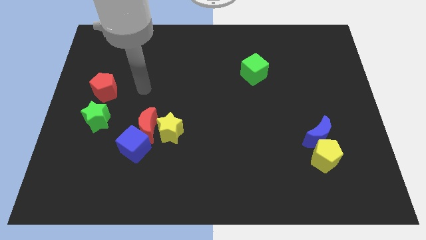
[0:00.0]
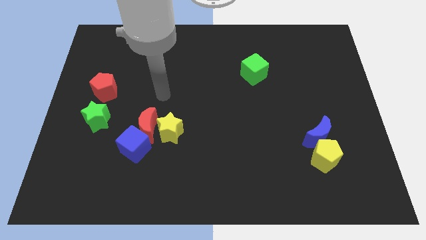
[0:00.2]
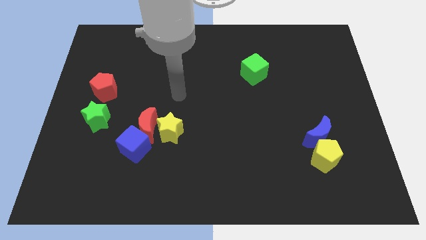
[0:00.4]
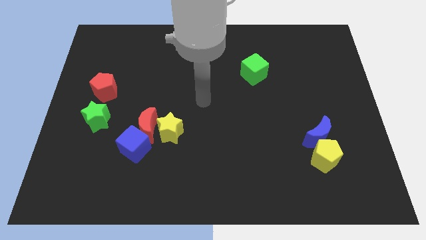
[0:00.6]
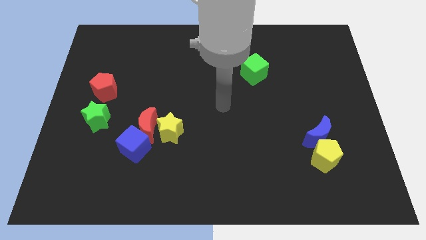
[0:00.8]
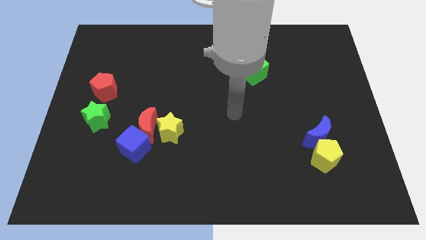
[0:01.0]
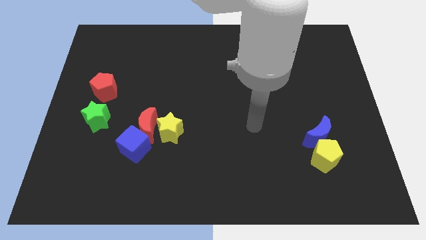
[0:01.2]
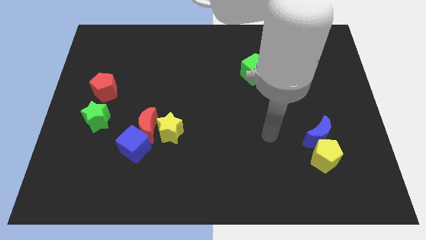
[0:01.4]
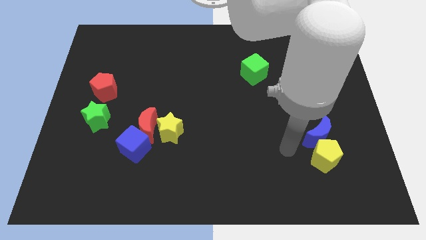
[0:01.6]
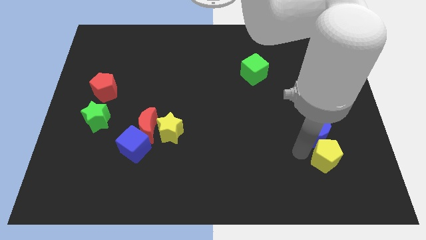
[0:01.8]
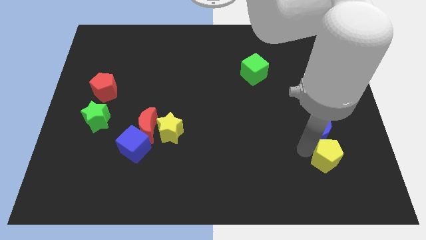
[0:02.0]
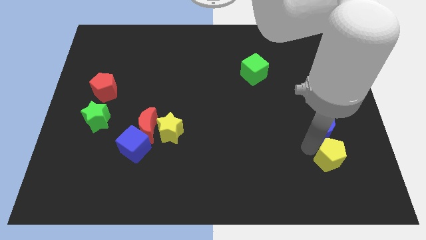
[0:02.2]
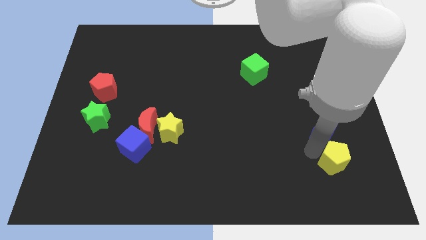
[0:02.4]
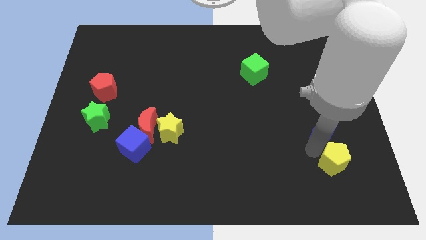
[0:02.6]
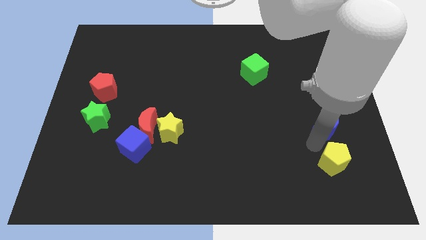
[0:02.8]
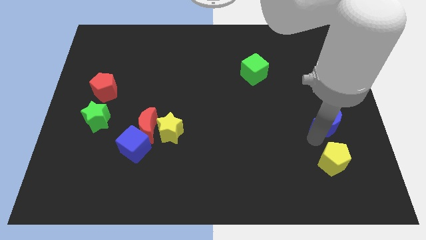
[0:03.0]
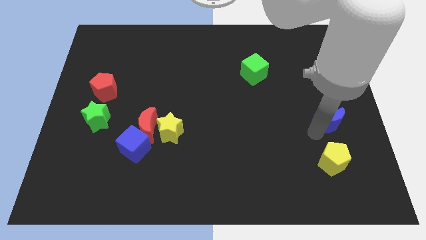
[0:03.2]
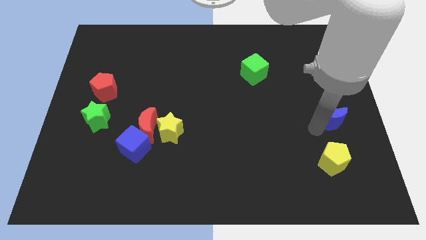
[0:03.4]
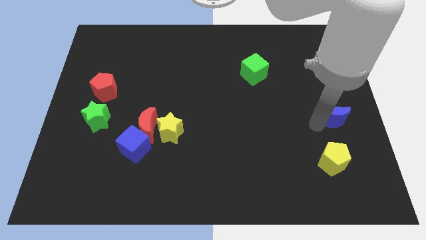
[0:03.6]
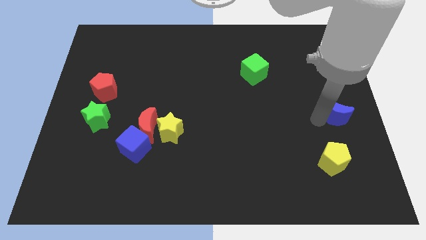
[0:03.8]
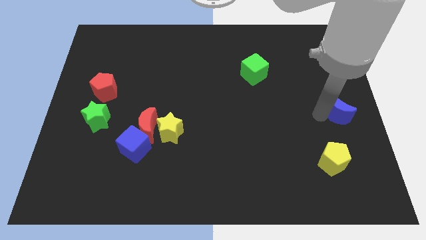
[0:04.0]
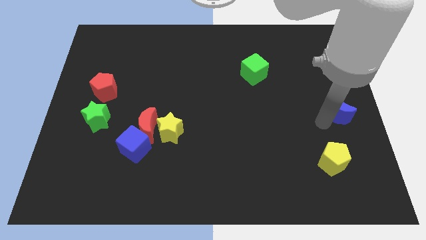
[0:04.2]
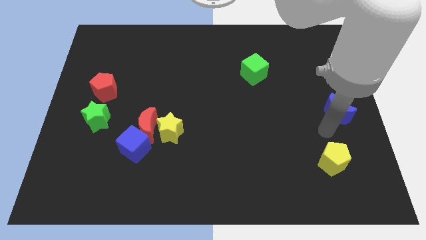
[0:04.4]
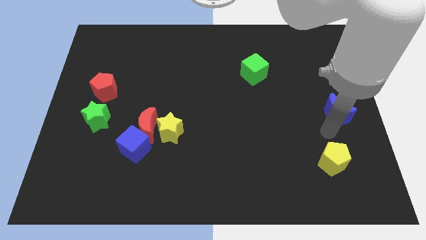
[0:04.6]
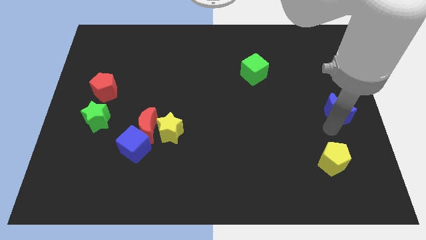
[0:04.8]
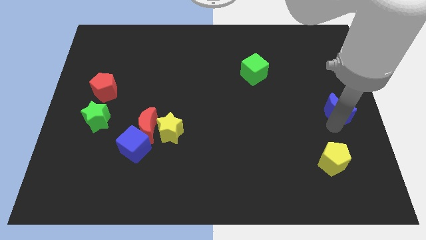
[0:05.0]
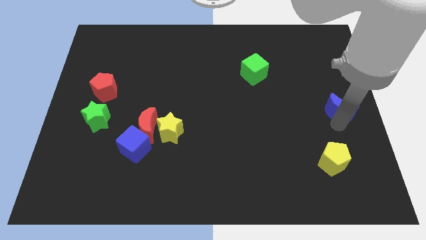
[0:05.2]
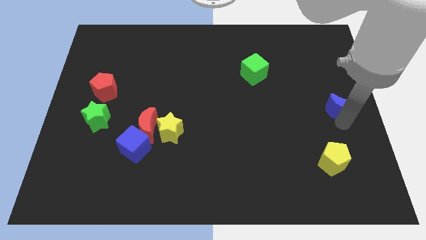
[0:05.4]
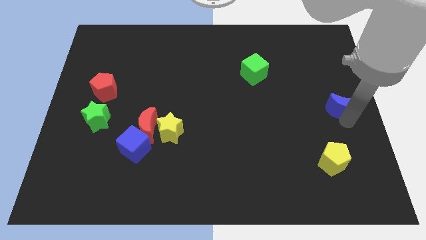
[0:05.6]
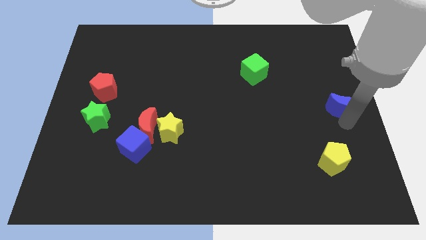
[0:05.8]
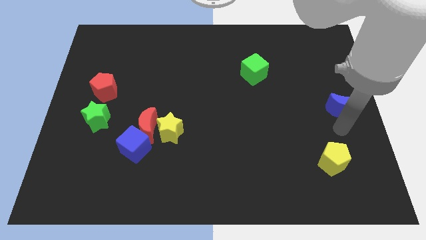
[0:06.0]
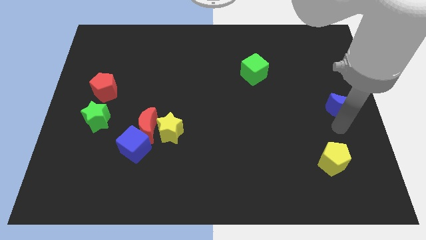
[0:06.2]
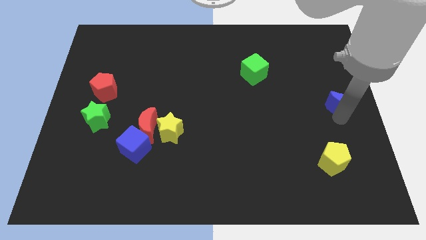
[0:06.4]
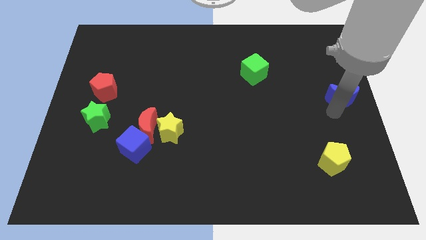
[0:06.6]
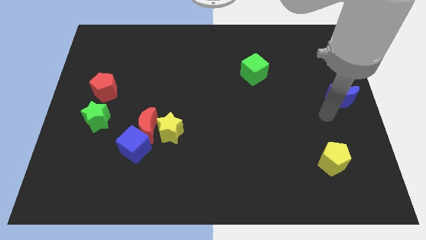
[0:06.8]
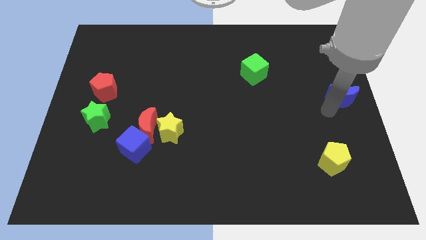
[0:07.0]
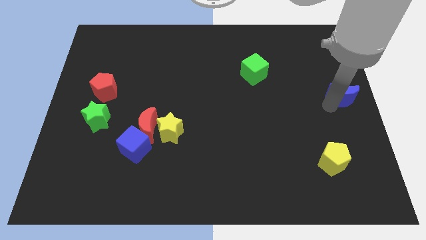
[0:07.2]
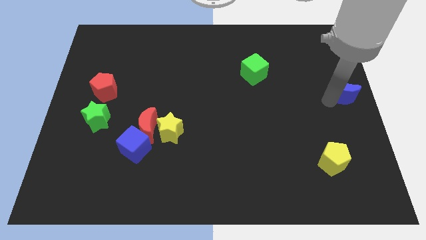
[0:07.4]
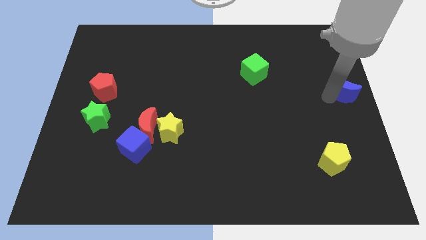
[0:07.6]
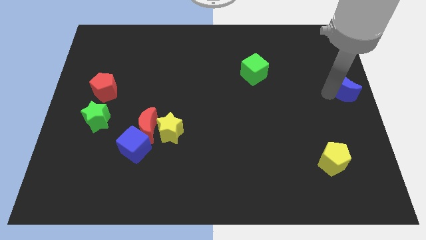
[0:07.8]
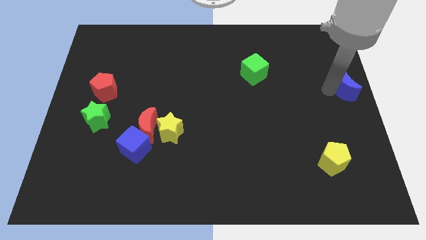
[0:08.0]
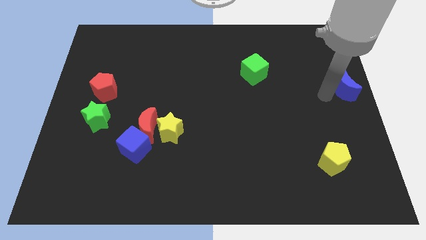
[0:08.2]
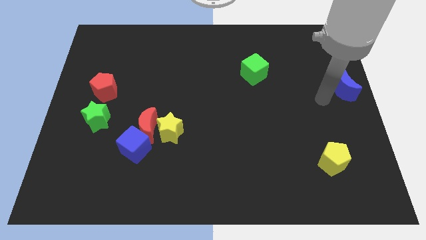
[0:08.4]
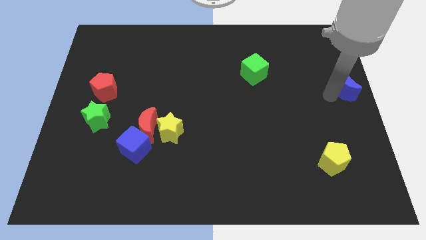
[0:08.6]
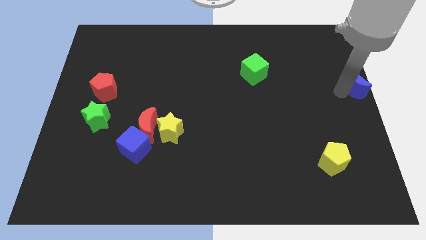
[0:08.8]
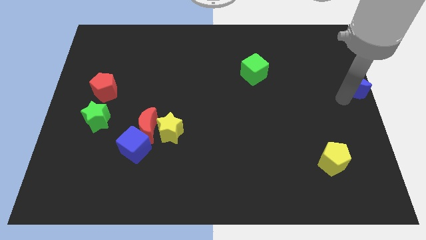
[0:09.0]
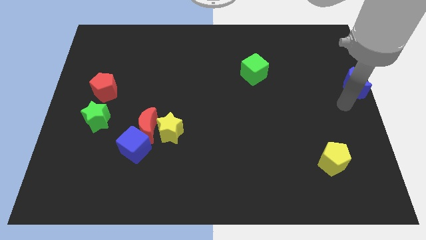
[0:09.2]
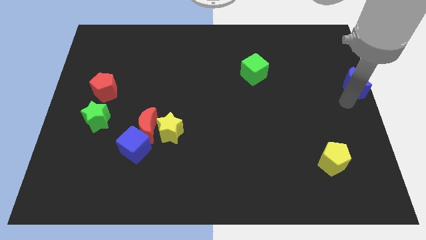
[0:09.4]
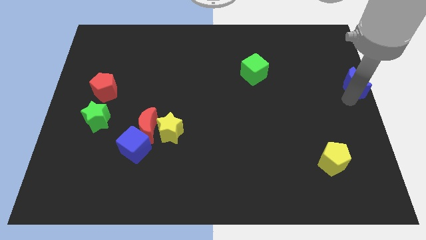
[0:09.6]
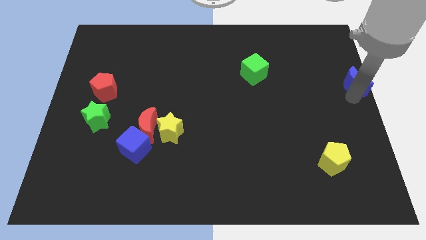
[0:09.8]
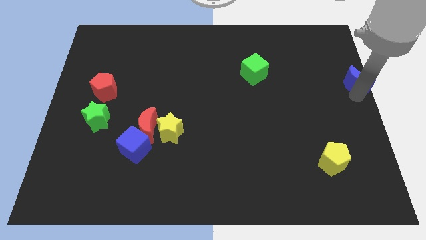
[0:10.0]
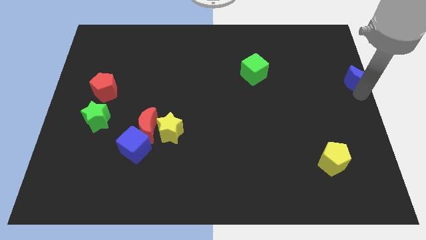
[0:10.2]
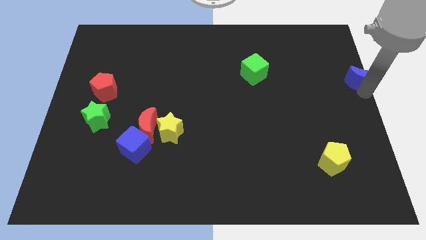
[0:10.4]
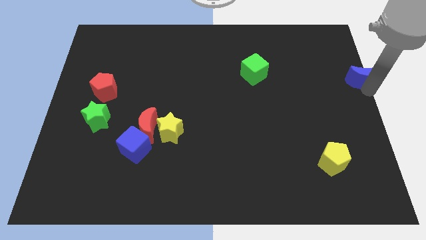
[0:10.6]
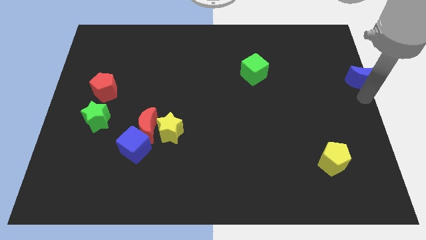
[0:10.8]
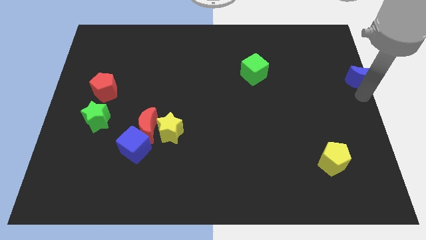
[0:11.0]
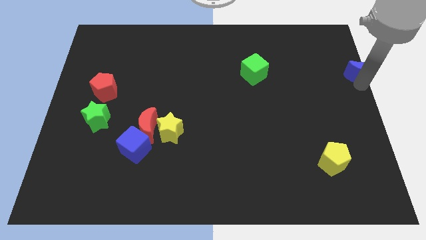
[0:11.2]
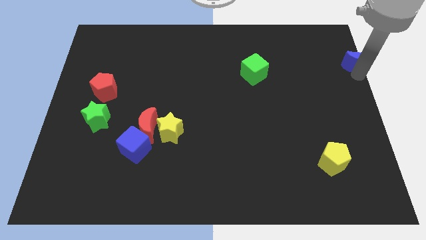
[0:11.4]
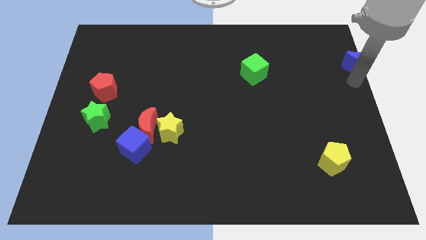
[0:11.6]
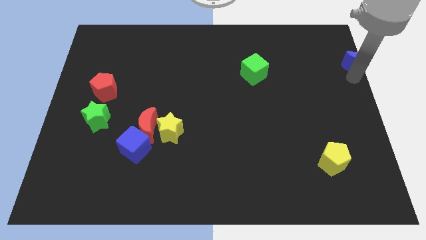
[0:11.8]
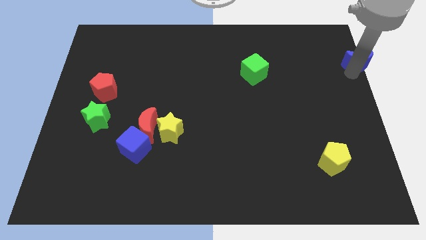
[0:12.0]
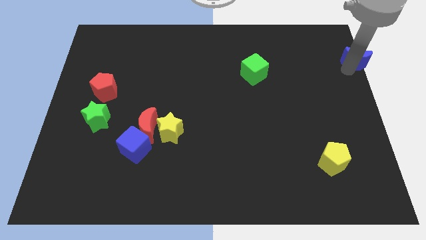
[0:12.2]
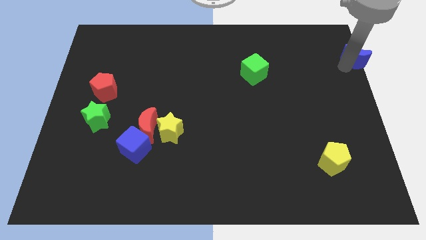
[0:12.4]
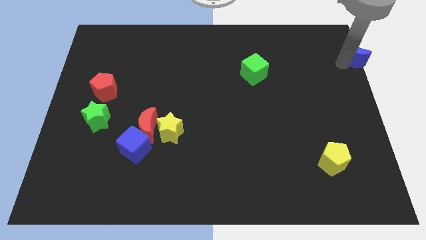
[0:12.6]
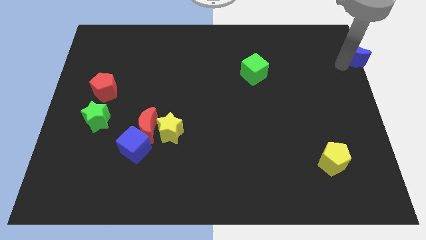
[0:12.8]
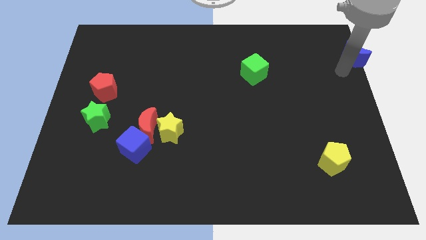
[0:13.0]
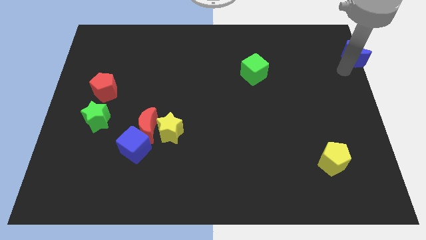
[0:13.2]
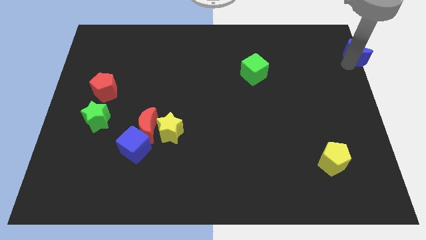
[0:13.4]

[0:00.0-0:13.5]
slide the blue moon to the upper right corner
